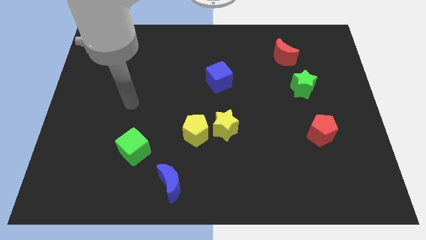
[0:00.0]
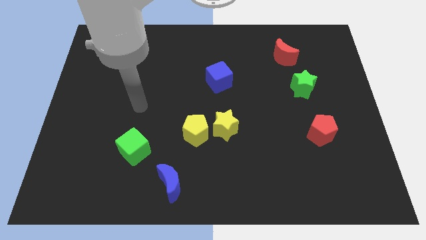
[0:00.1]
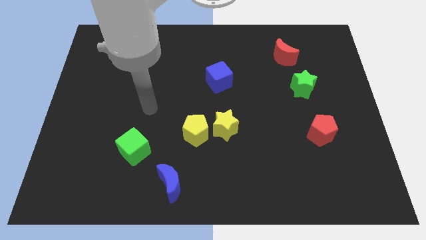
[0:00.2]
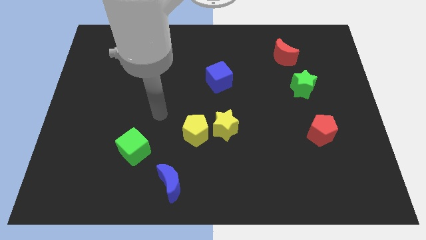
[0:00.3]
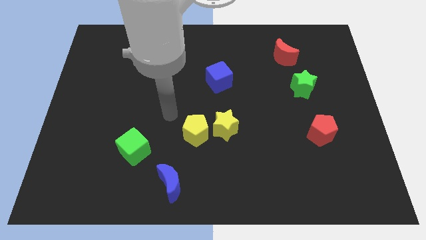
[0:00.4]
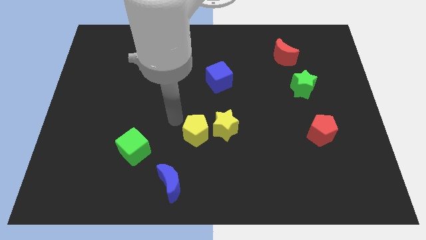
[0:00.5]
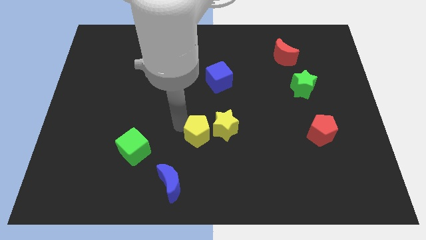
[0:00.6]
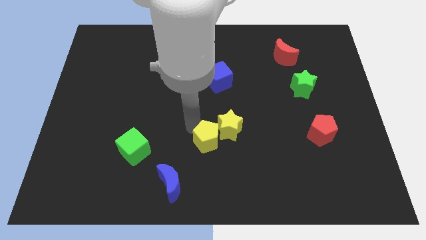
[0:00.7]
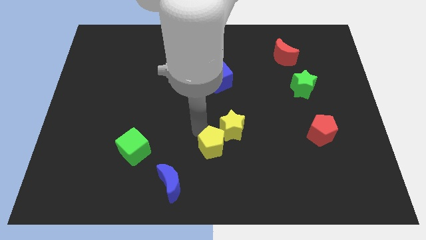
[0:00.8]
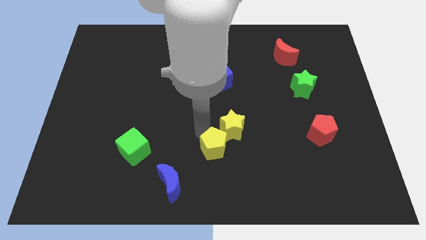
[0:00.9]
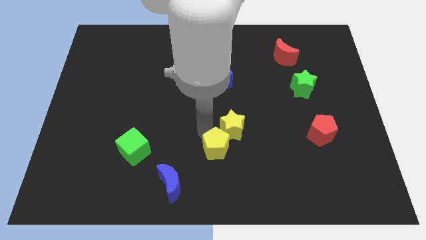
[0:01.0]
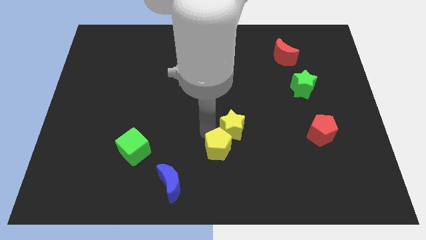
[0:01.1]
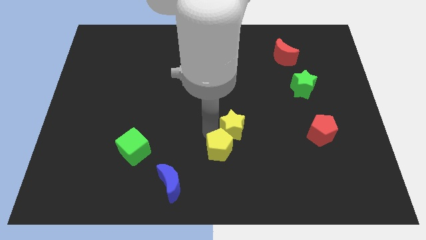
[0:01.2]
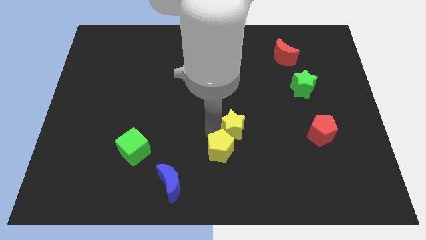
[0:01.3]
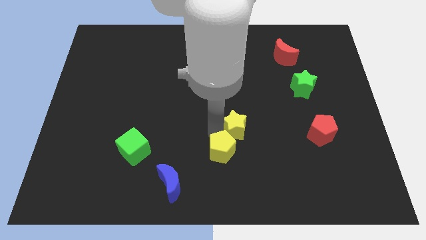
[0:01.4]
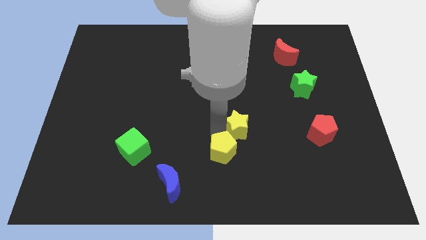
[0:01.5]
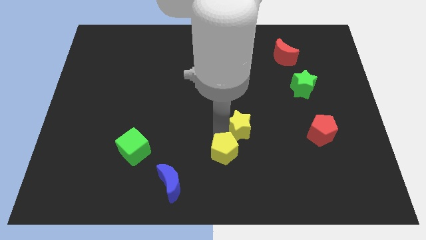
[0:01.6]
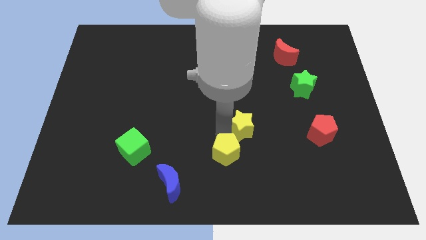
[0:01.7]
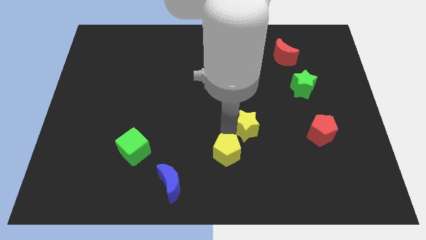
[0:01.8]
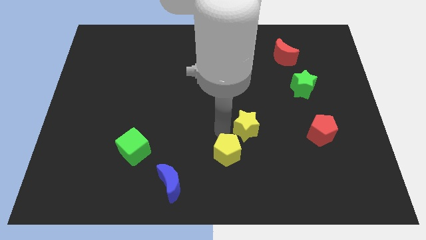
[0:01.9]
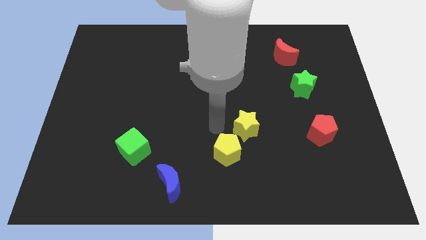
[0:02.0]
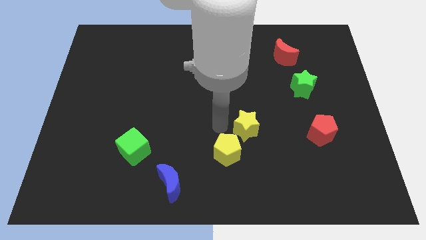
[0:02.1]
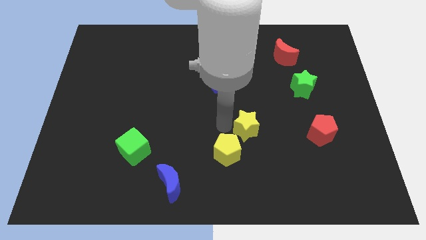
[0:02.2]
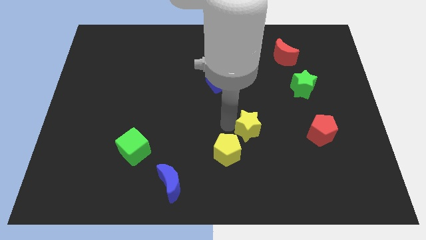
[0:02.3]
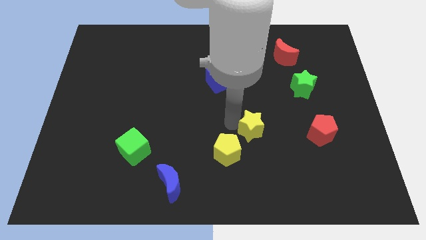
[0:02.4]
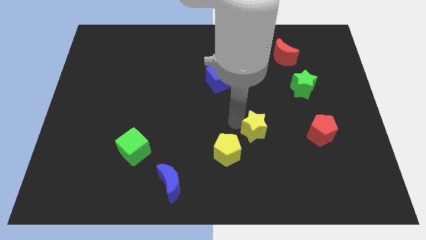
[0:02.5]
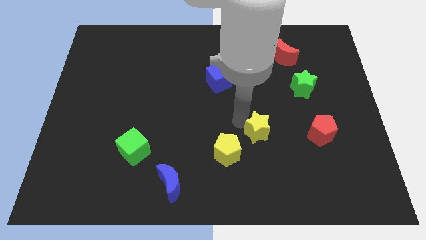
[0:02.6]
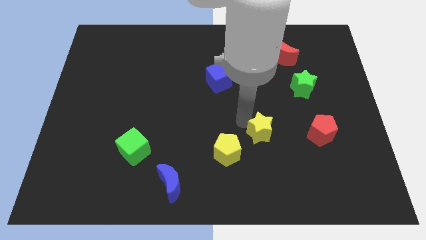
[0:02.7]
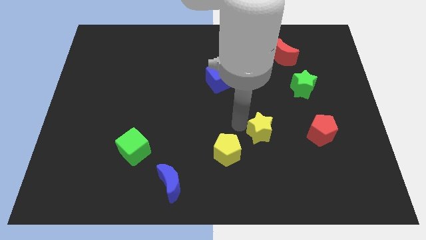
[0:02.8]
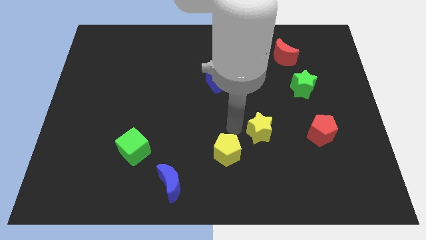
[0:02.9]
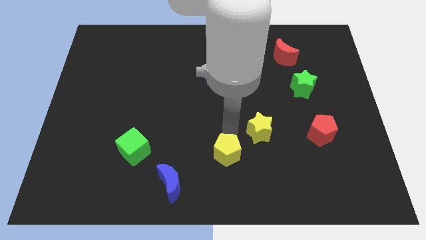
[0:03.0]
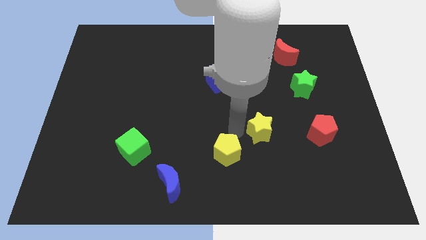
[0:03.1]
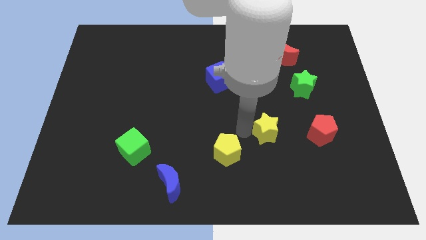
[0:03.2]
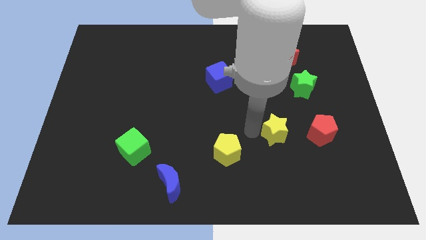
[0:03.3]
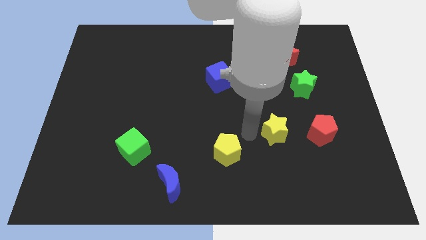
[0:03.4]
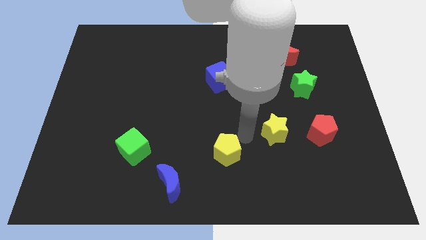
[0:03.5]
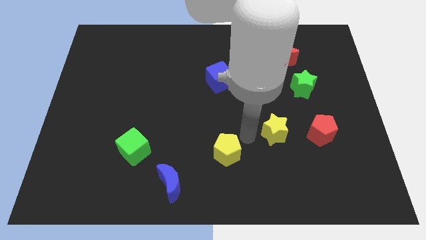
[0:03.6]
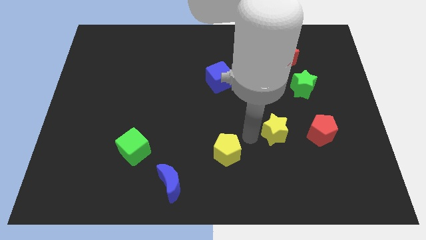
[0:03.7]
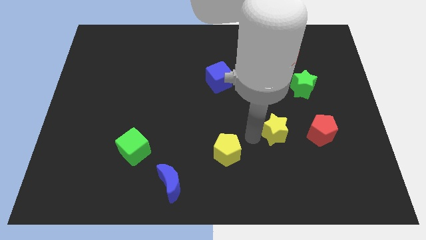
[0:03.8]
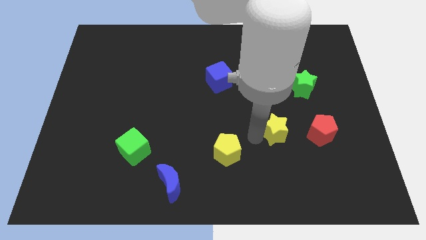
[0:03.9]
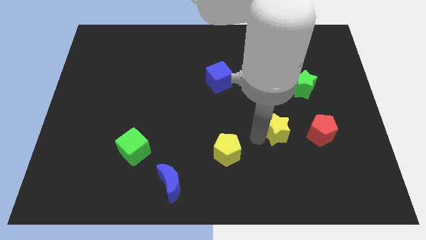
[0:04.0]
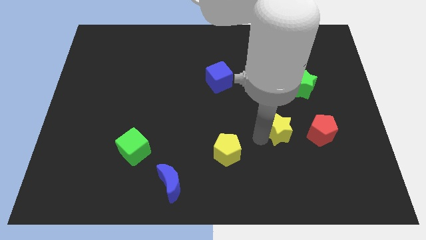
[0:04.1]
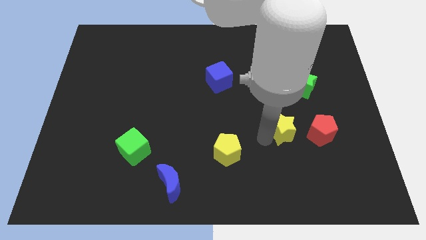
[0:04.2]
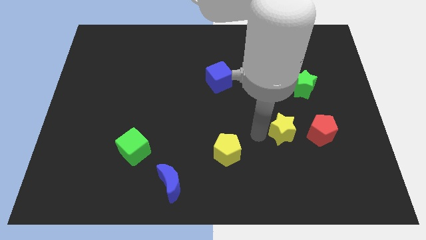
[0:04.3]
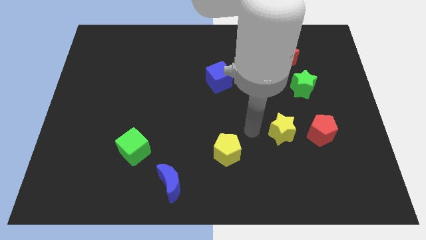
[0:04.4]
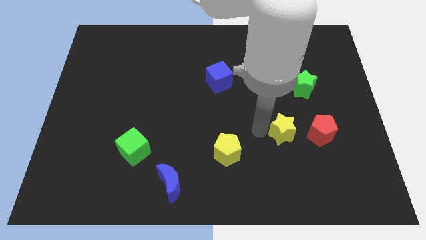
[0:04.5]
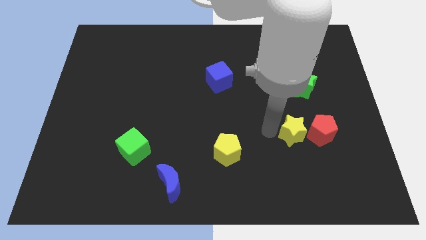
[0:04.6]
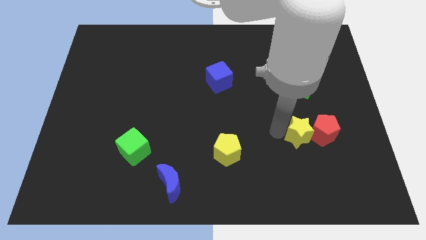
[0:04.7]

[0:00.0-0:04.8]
put the yellow star towards the red pentagon

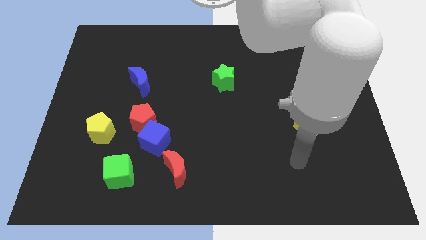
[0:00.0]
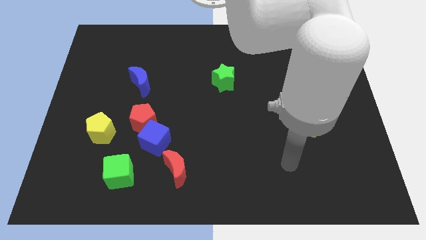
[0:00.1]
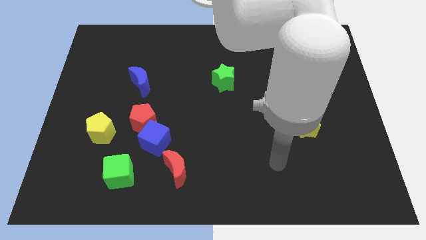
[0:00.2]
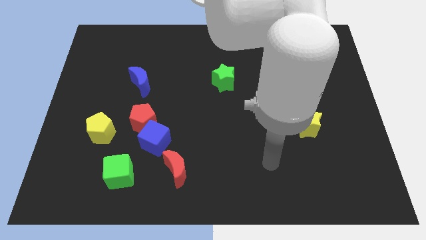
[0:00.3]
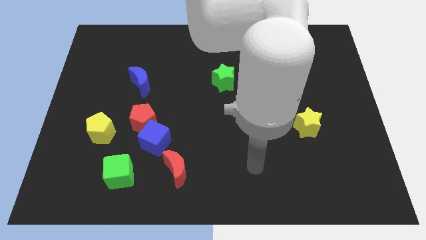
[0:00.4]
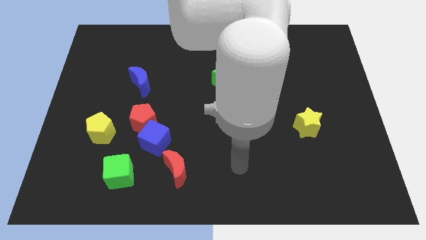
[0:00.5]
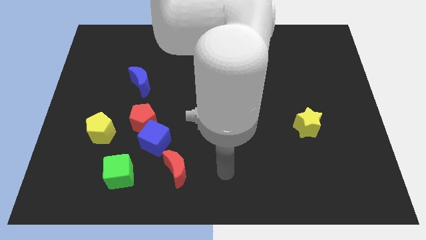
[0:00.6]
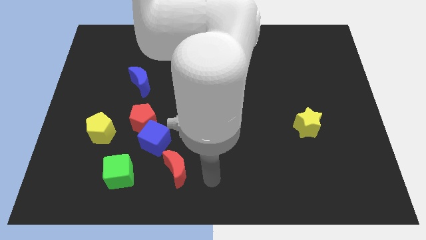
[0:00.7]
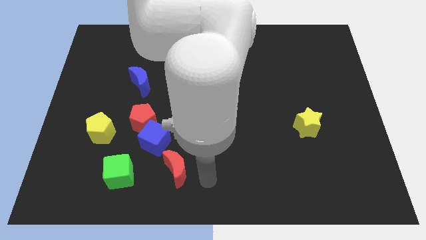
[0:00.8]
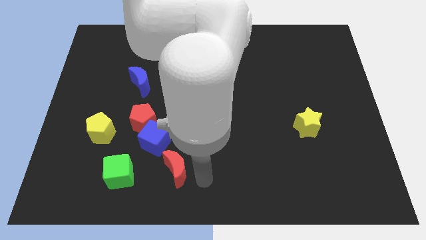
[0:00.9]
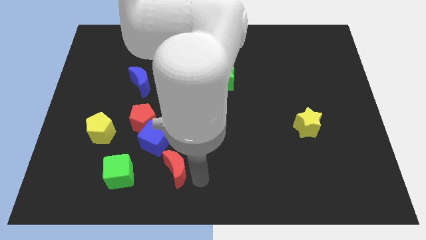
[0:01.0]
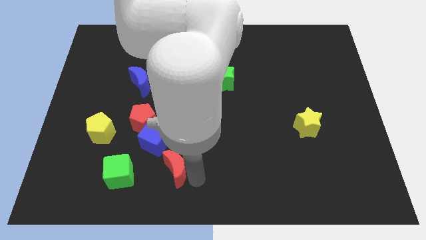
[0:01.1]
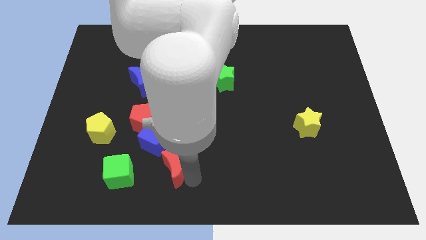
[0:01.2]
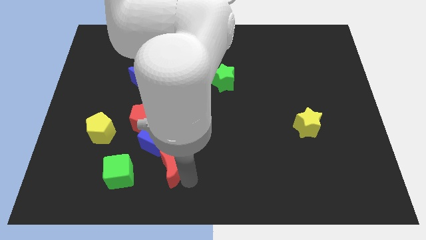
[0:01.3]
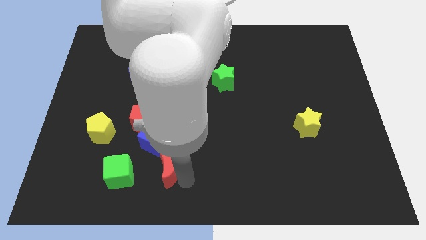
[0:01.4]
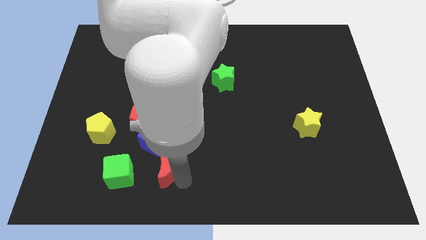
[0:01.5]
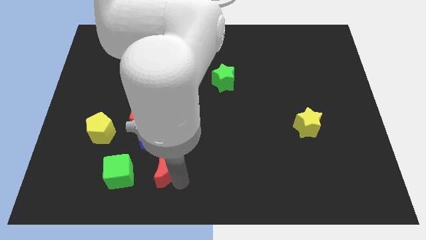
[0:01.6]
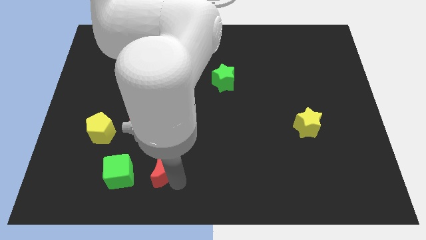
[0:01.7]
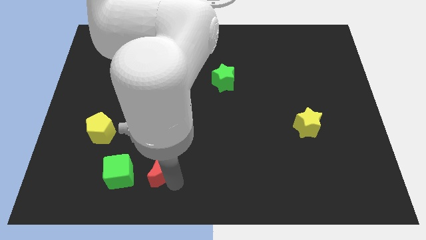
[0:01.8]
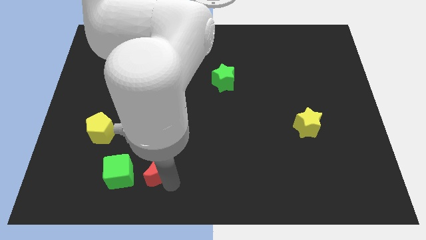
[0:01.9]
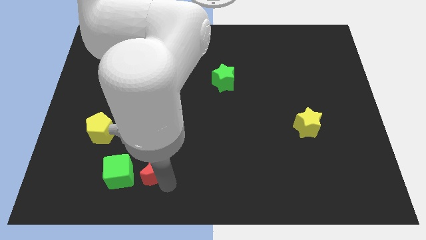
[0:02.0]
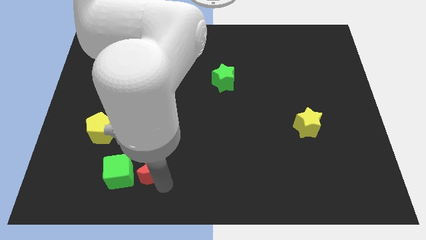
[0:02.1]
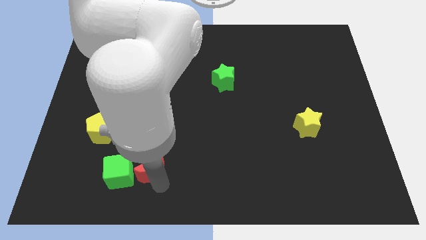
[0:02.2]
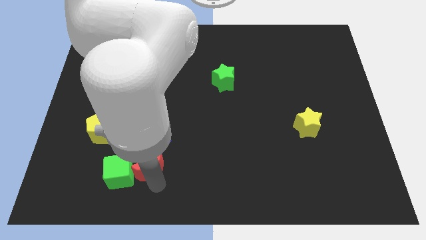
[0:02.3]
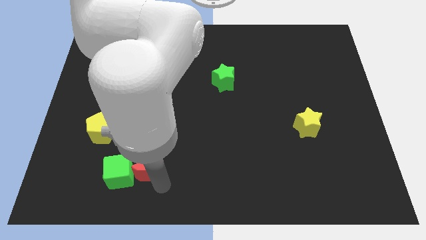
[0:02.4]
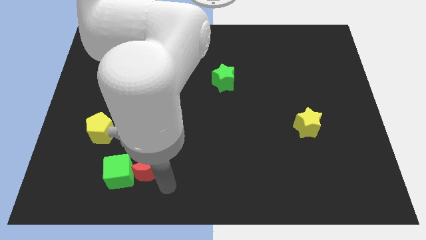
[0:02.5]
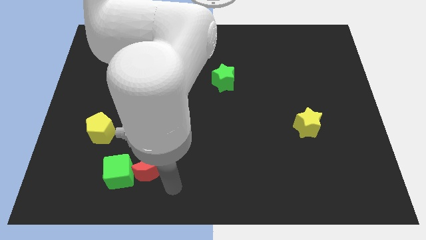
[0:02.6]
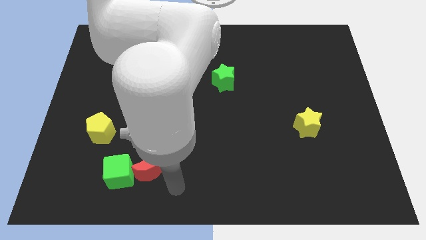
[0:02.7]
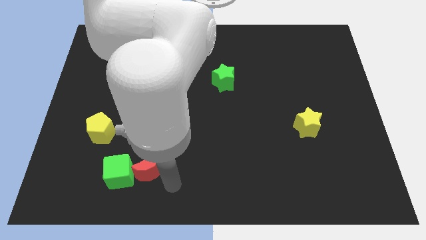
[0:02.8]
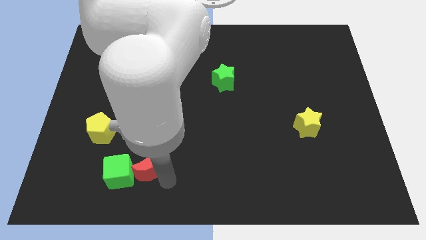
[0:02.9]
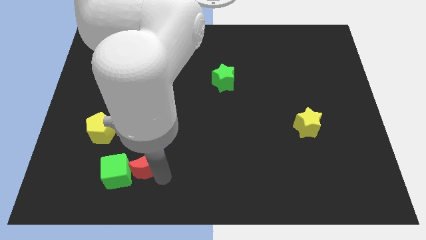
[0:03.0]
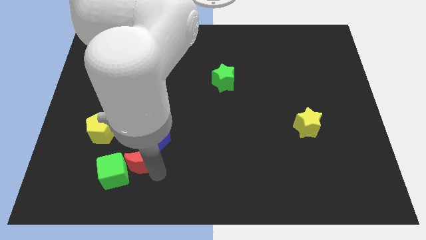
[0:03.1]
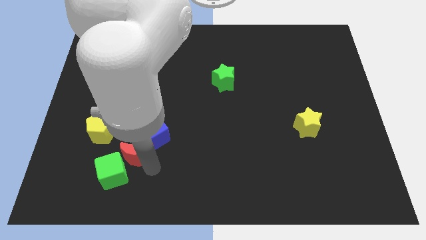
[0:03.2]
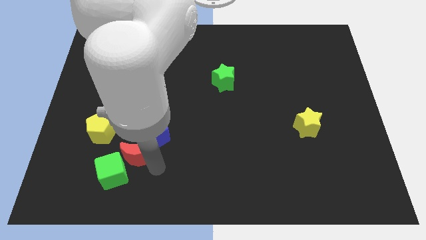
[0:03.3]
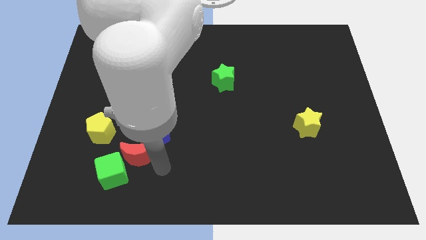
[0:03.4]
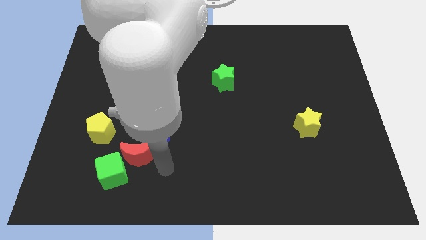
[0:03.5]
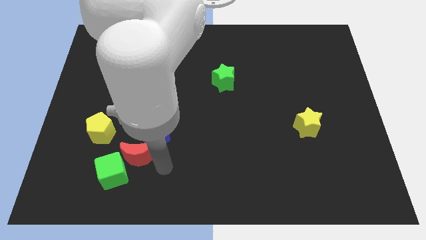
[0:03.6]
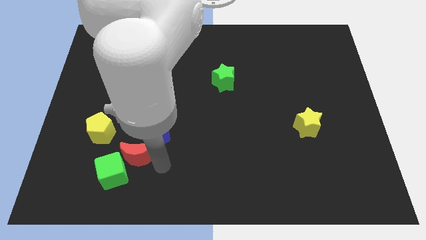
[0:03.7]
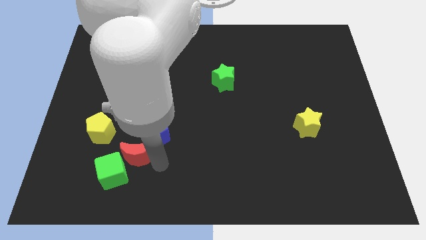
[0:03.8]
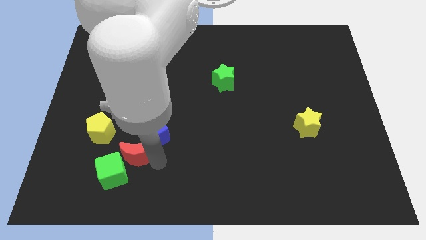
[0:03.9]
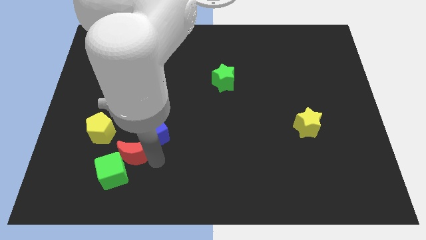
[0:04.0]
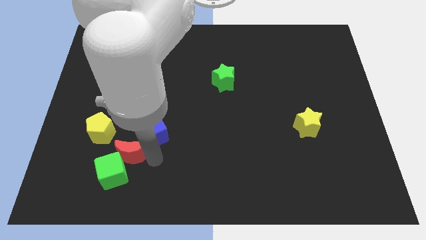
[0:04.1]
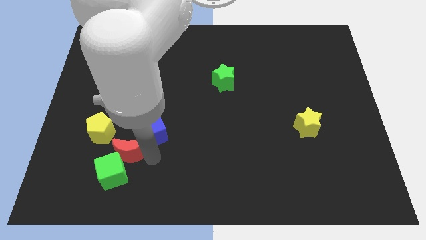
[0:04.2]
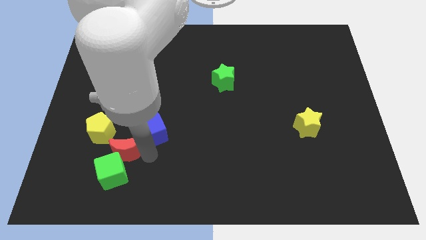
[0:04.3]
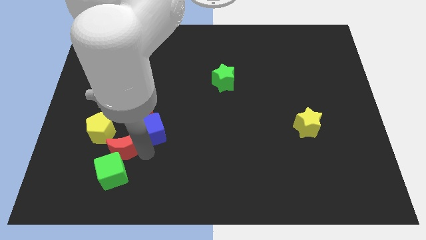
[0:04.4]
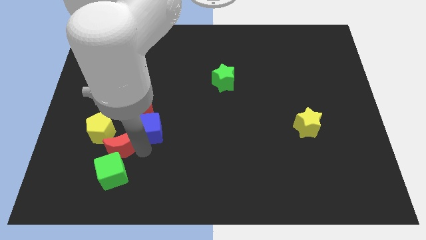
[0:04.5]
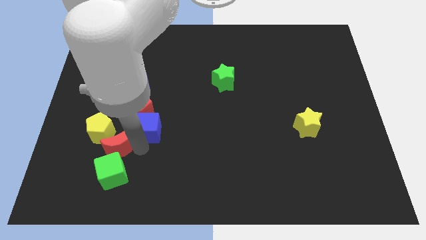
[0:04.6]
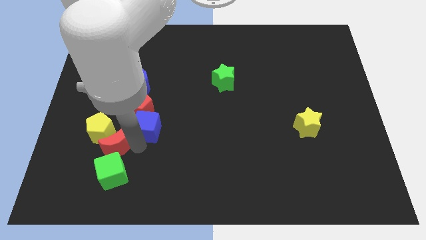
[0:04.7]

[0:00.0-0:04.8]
move the red moon close to the yellow pentagon
